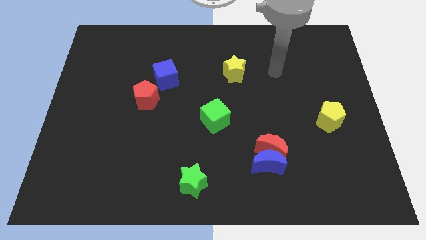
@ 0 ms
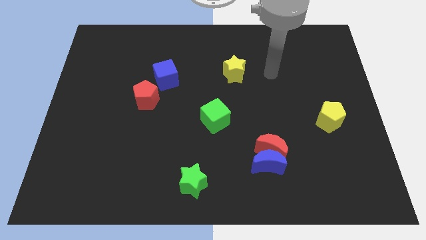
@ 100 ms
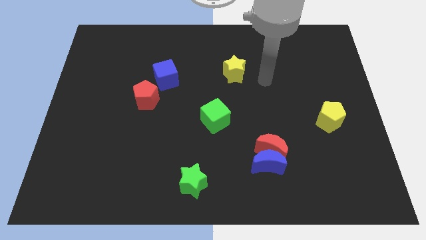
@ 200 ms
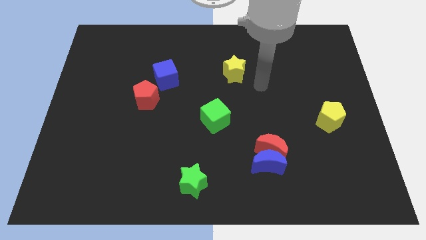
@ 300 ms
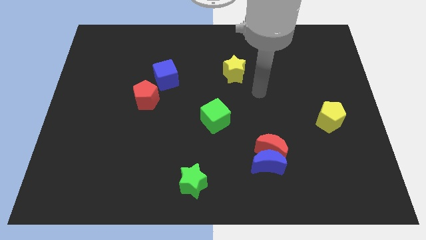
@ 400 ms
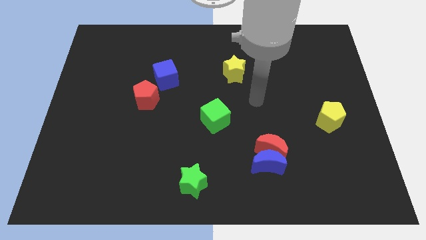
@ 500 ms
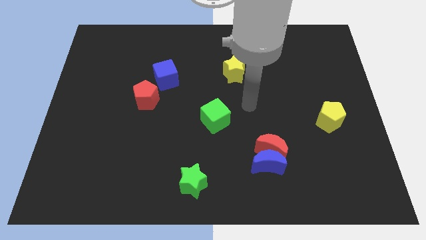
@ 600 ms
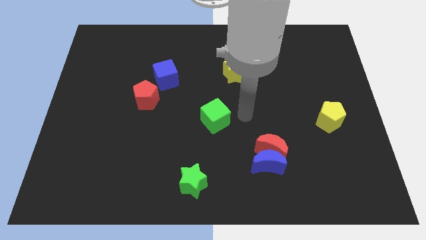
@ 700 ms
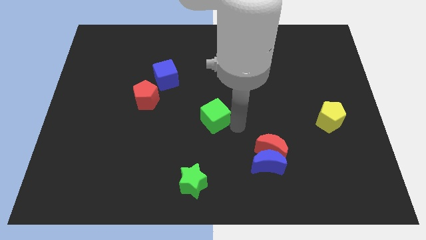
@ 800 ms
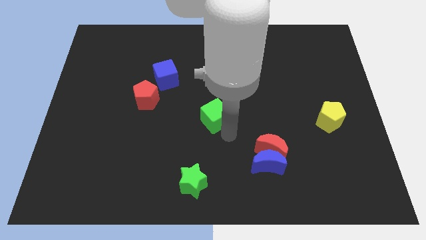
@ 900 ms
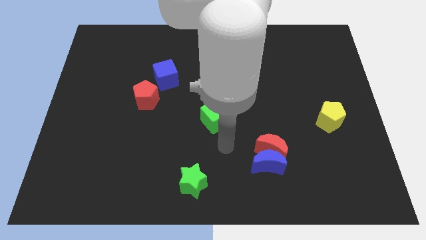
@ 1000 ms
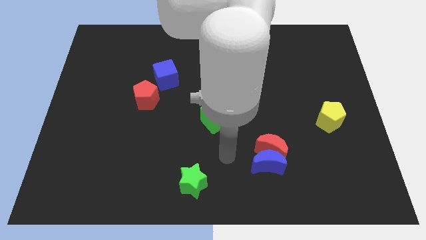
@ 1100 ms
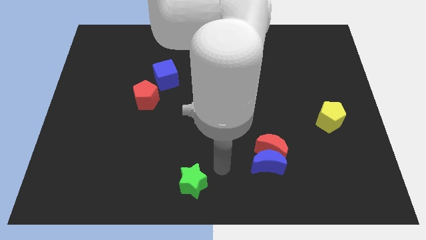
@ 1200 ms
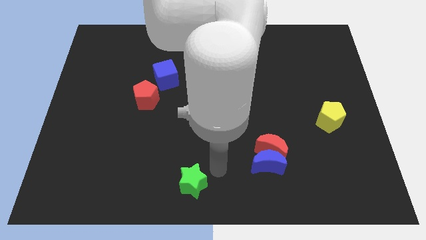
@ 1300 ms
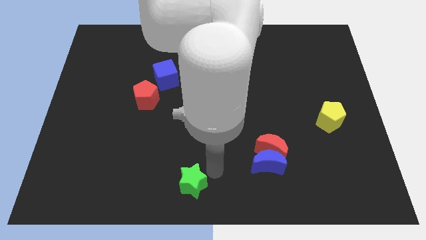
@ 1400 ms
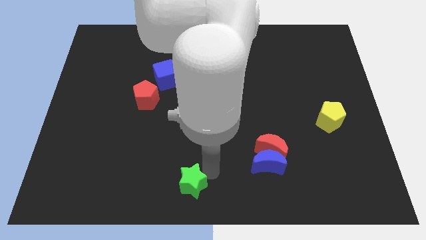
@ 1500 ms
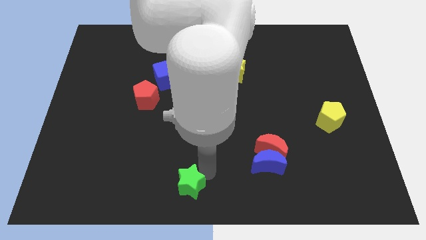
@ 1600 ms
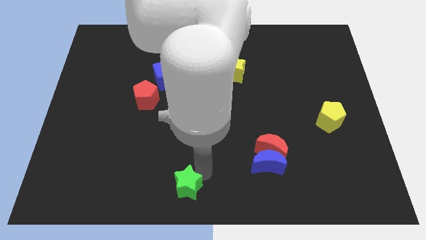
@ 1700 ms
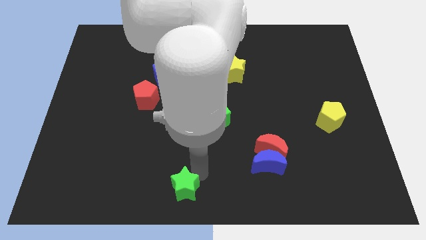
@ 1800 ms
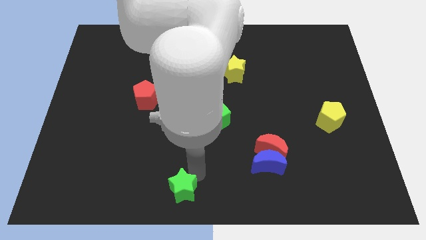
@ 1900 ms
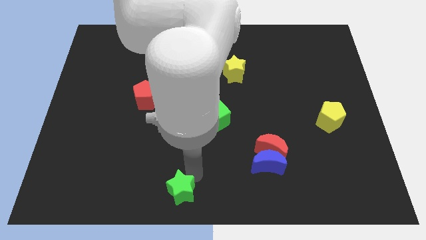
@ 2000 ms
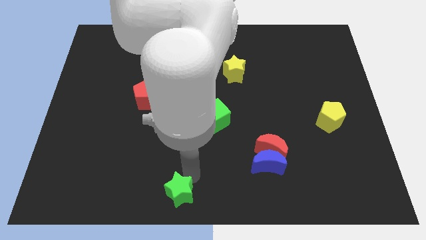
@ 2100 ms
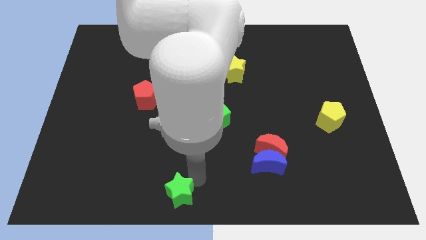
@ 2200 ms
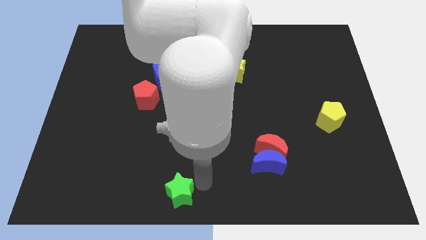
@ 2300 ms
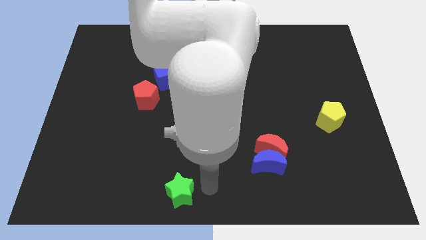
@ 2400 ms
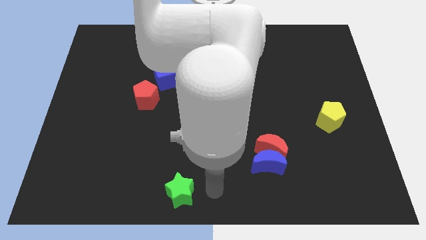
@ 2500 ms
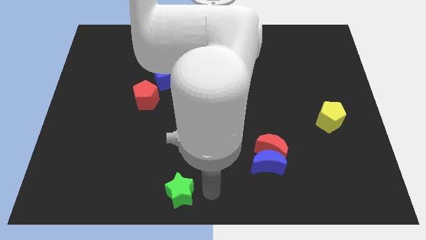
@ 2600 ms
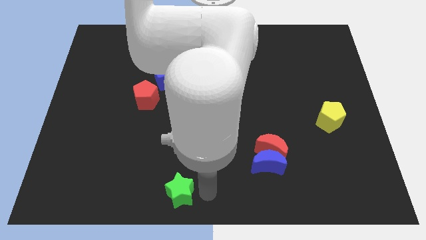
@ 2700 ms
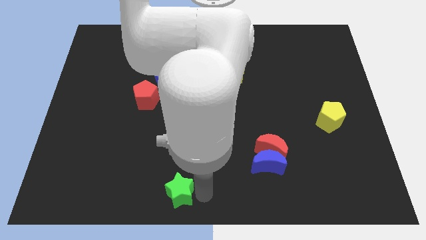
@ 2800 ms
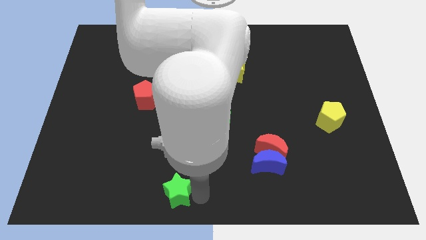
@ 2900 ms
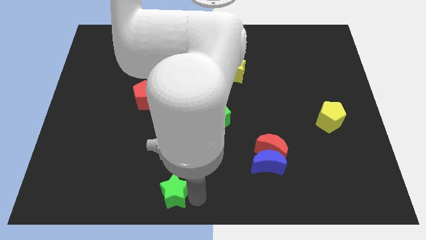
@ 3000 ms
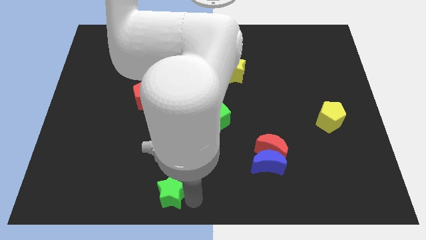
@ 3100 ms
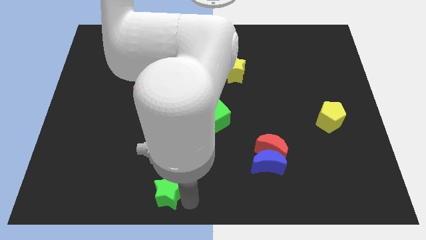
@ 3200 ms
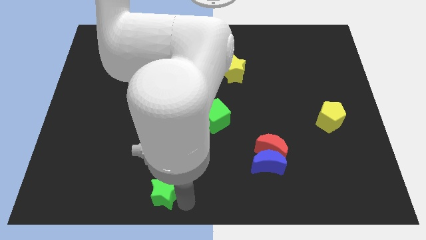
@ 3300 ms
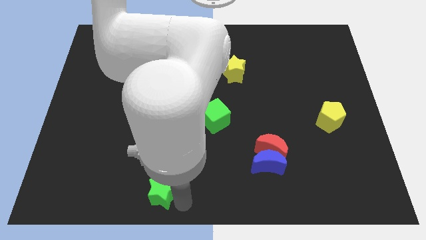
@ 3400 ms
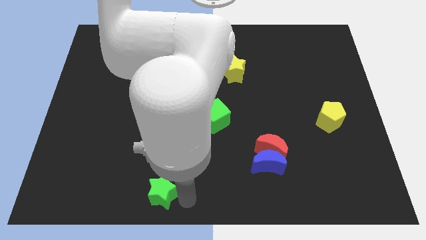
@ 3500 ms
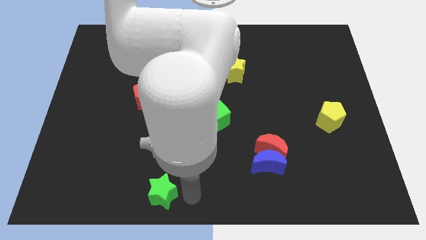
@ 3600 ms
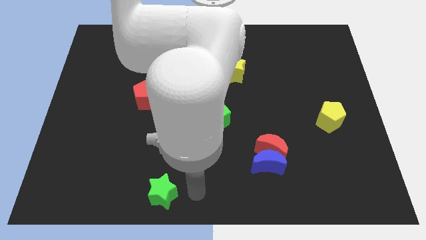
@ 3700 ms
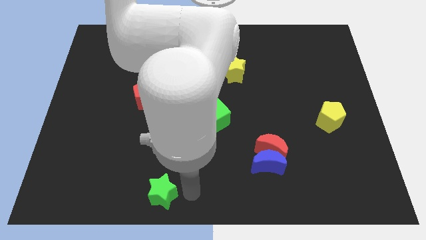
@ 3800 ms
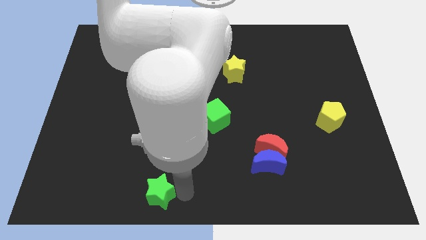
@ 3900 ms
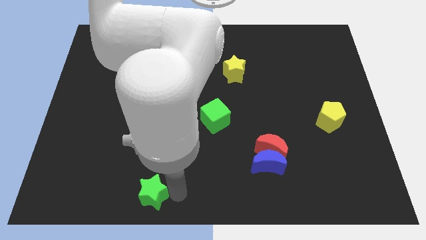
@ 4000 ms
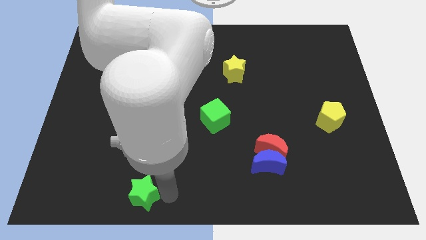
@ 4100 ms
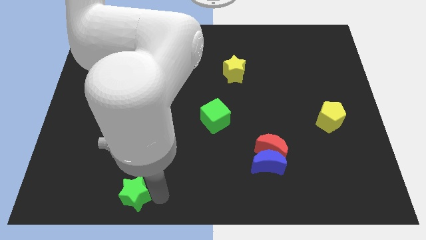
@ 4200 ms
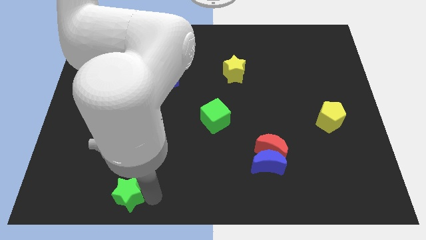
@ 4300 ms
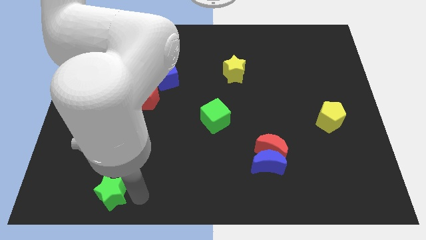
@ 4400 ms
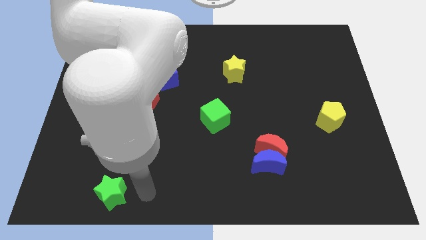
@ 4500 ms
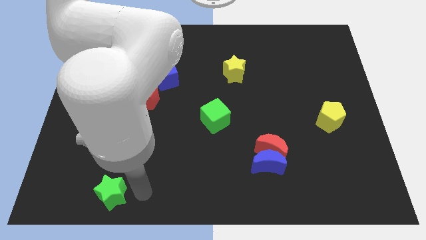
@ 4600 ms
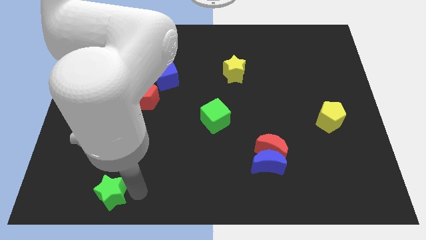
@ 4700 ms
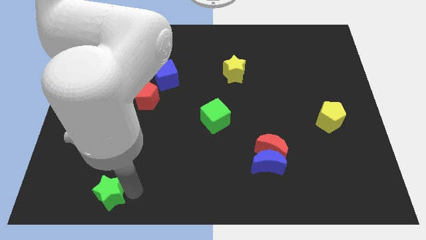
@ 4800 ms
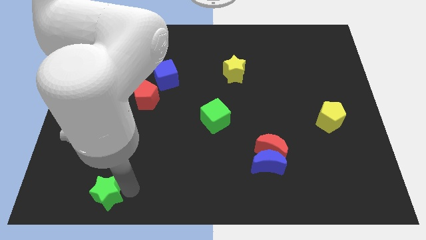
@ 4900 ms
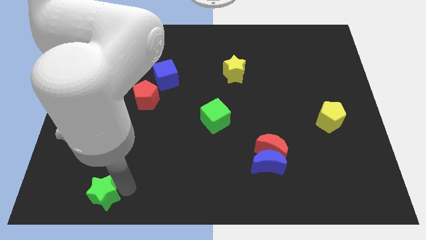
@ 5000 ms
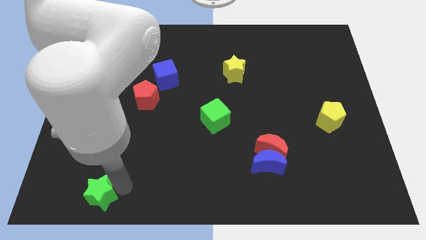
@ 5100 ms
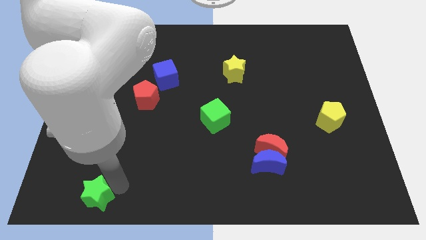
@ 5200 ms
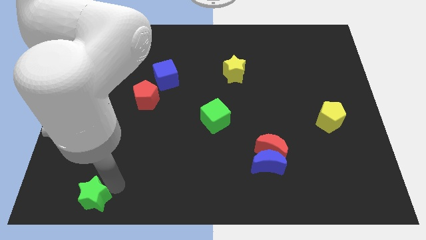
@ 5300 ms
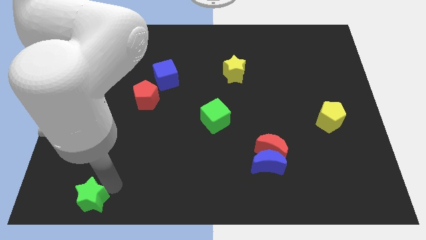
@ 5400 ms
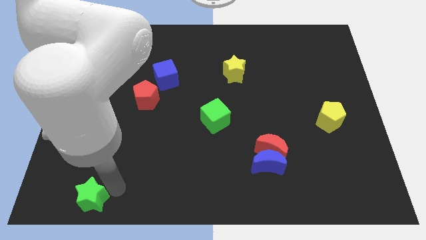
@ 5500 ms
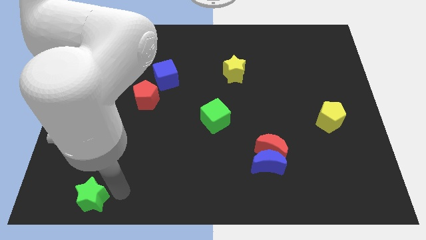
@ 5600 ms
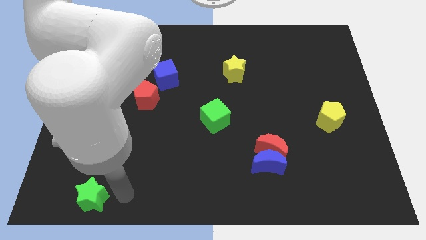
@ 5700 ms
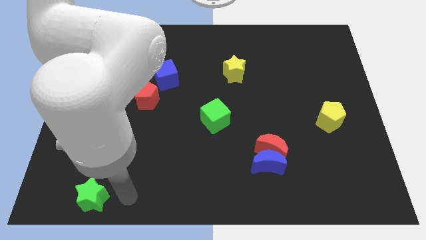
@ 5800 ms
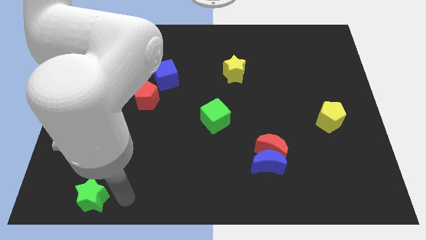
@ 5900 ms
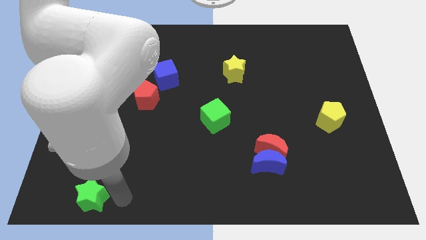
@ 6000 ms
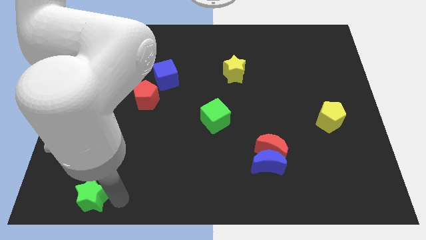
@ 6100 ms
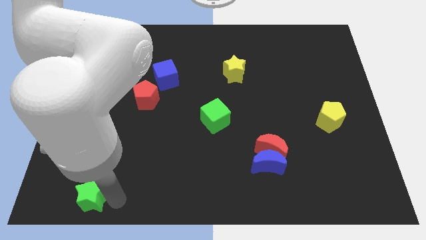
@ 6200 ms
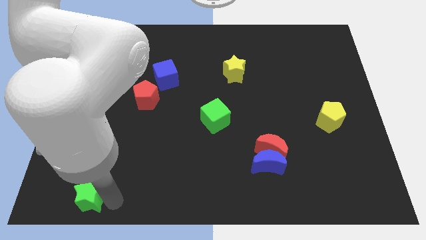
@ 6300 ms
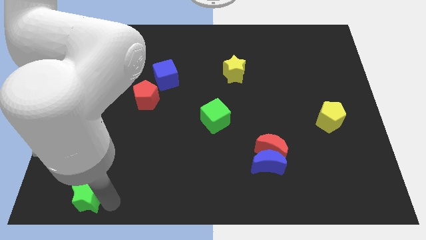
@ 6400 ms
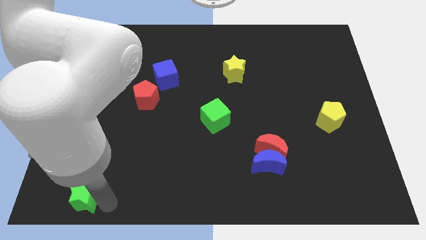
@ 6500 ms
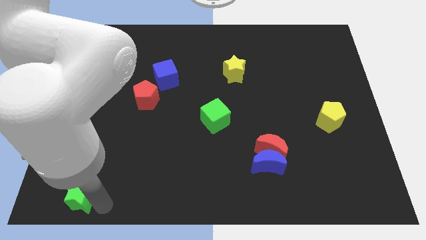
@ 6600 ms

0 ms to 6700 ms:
put the green star to the bottom left corner
